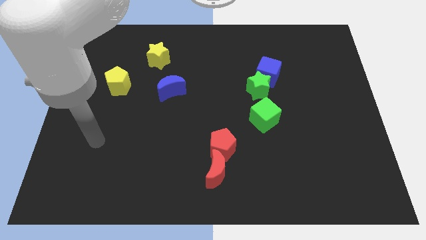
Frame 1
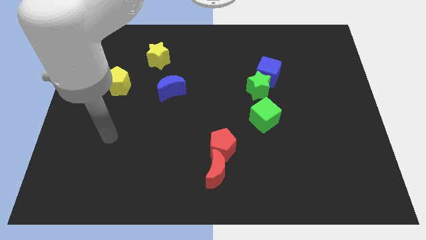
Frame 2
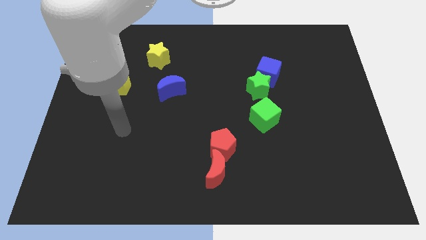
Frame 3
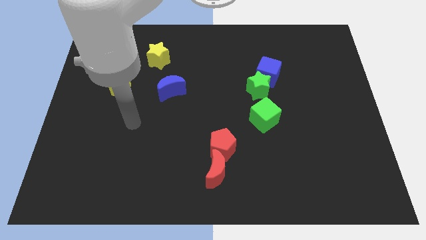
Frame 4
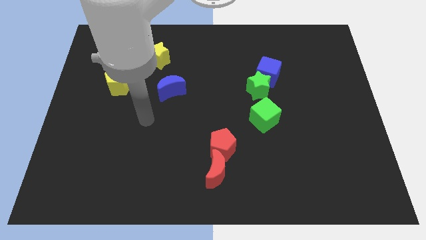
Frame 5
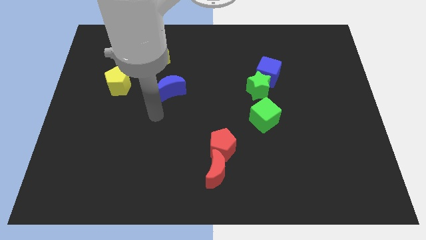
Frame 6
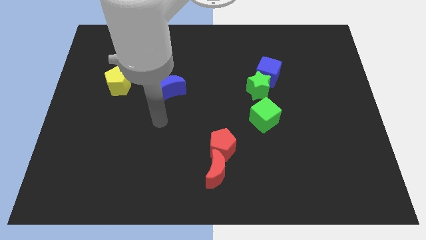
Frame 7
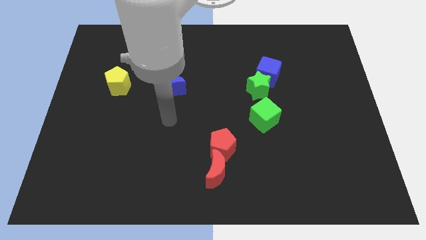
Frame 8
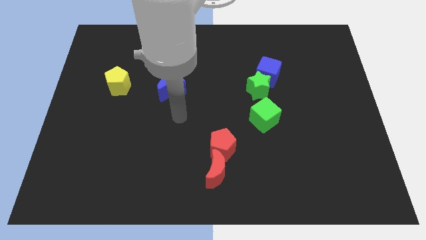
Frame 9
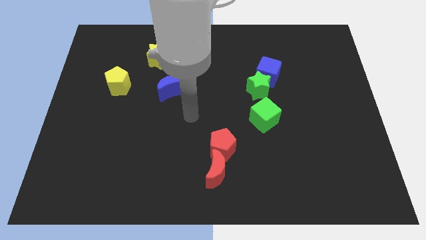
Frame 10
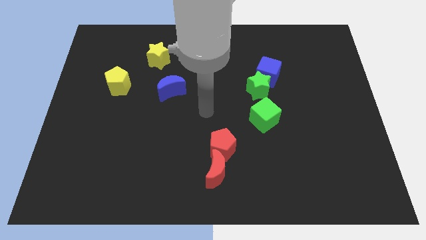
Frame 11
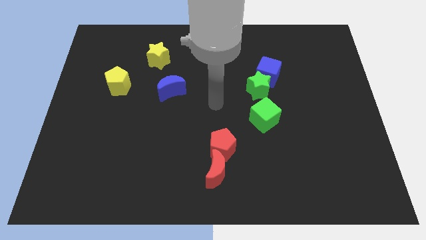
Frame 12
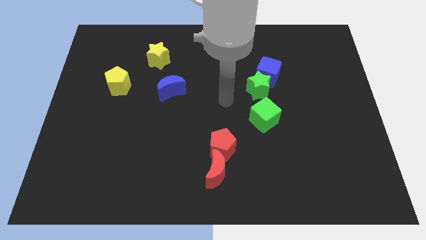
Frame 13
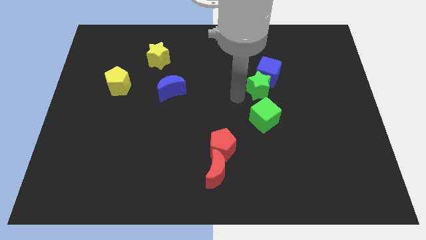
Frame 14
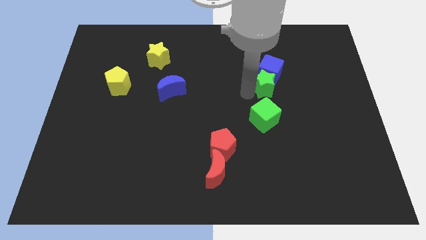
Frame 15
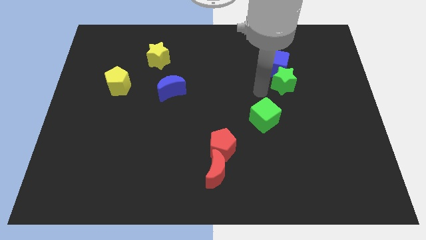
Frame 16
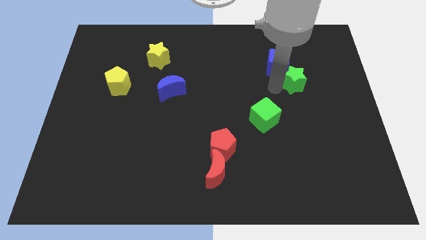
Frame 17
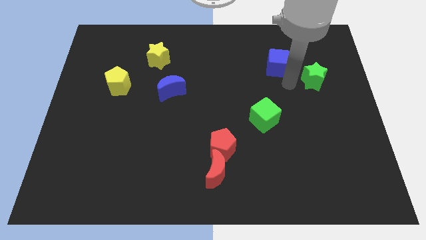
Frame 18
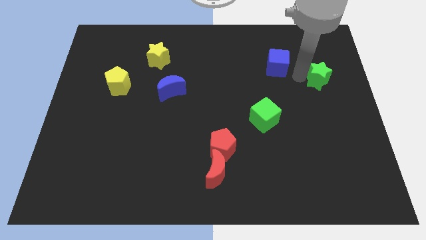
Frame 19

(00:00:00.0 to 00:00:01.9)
separate the blue cube from the green star

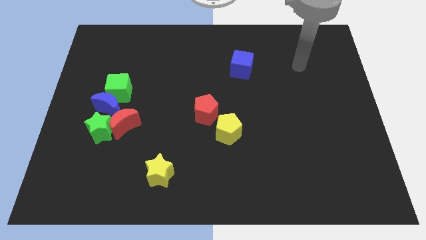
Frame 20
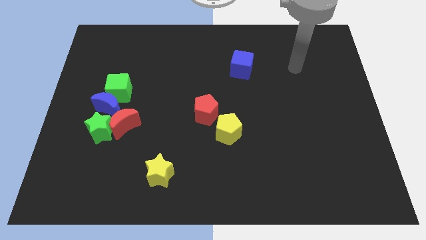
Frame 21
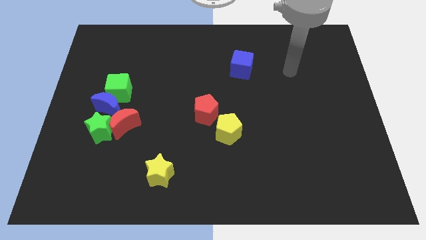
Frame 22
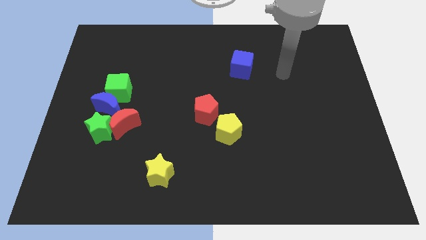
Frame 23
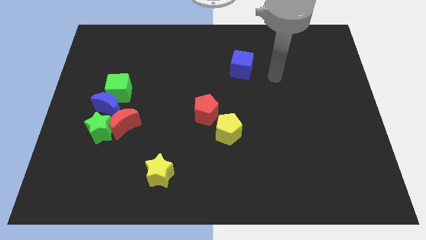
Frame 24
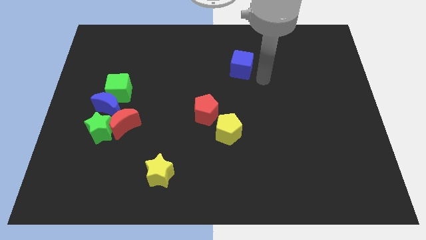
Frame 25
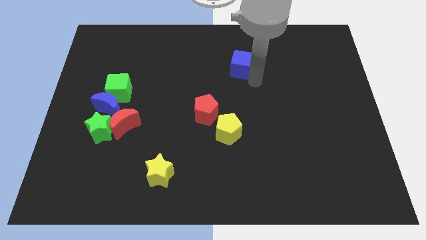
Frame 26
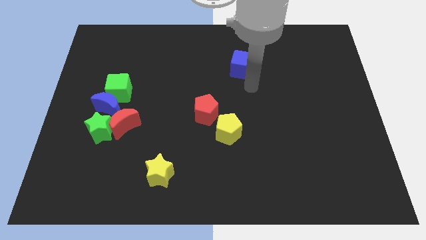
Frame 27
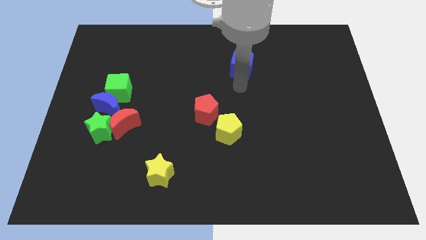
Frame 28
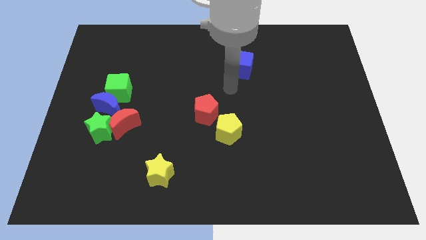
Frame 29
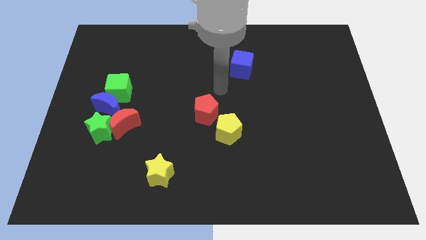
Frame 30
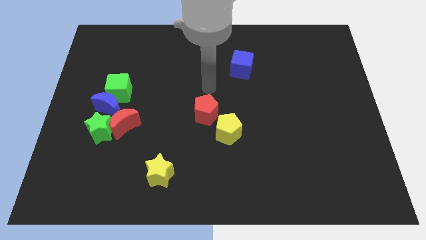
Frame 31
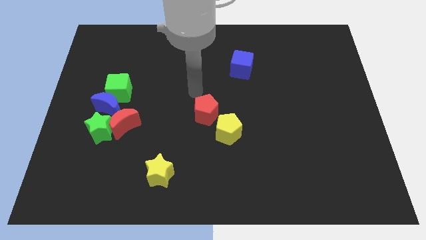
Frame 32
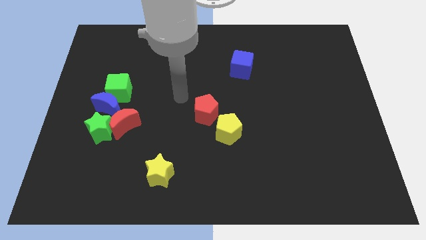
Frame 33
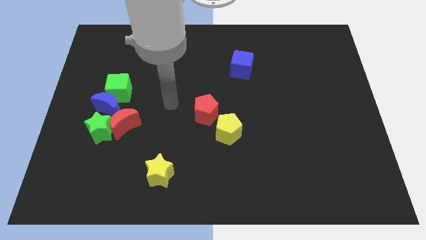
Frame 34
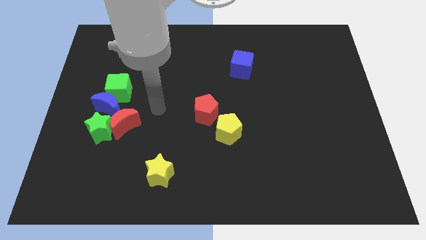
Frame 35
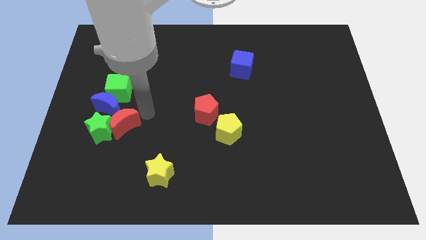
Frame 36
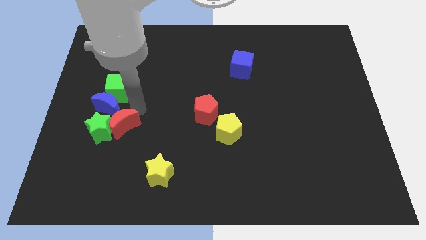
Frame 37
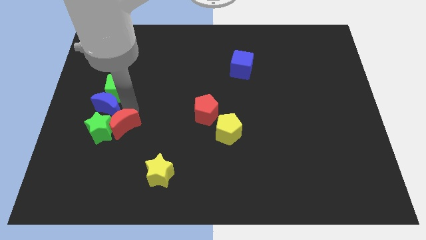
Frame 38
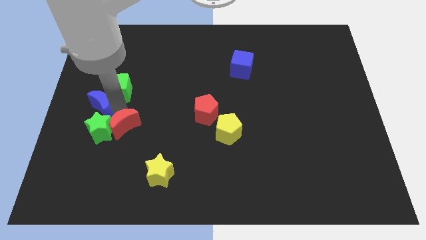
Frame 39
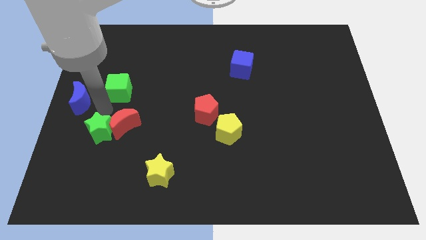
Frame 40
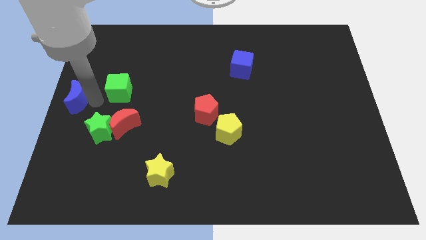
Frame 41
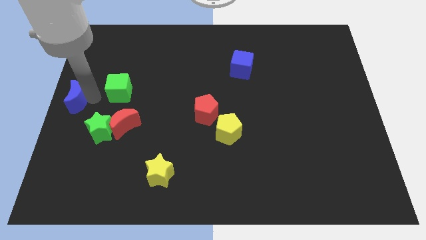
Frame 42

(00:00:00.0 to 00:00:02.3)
pull the green cube apart from the blue moon

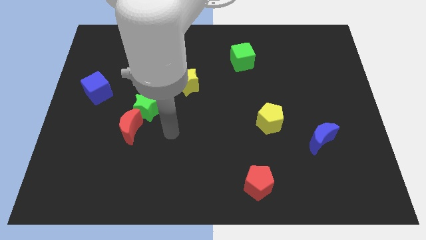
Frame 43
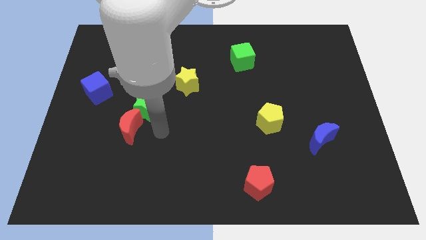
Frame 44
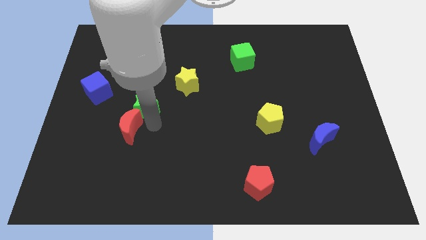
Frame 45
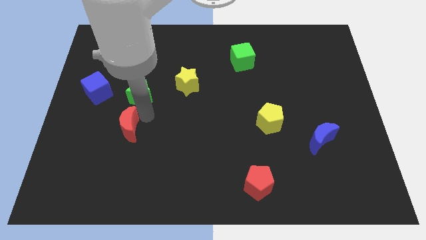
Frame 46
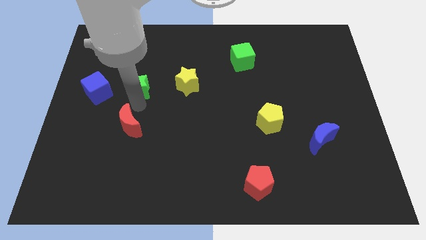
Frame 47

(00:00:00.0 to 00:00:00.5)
separate the red moon from the green star

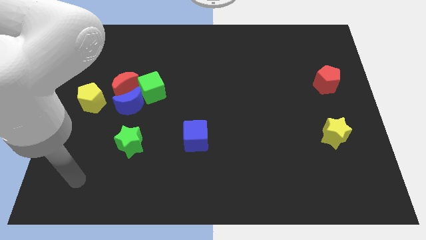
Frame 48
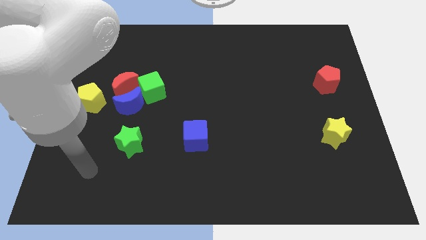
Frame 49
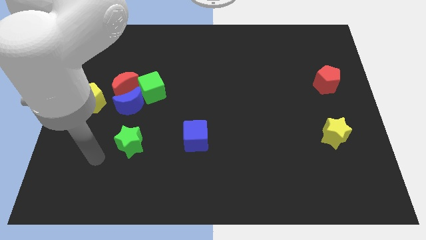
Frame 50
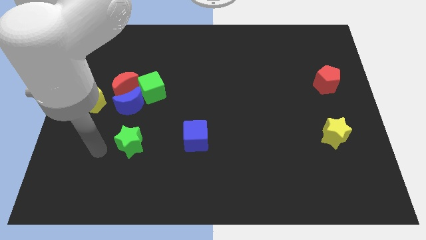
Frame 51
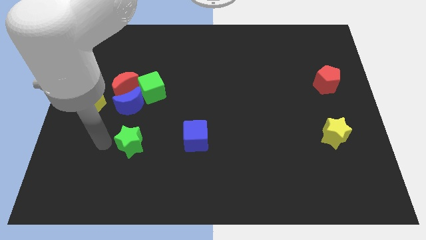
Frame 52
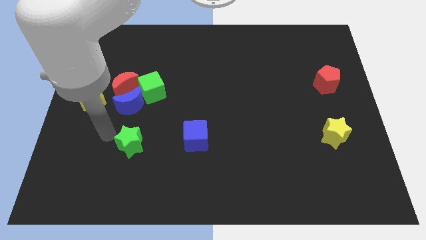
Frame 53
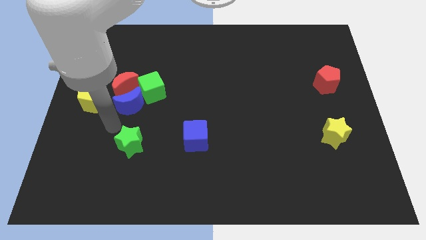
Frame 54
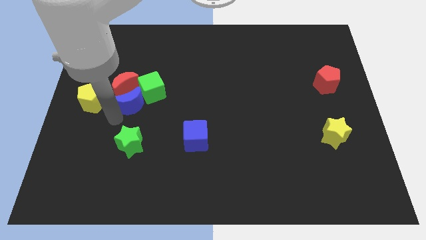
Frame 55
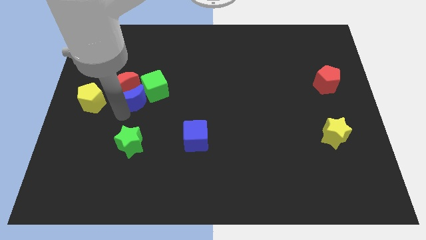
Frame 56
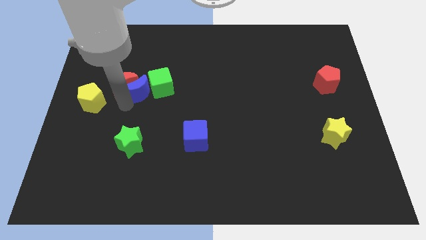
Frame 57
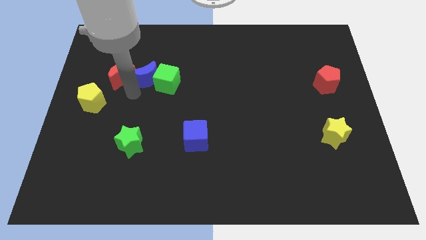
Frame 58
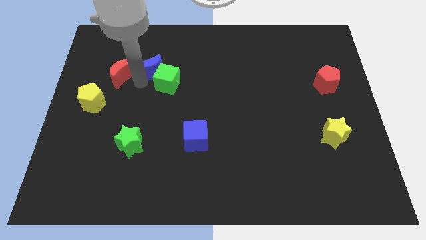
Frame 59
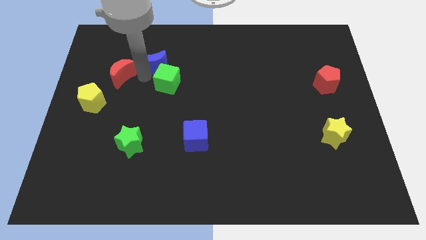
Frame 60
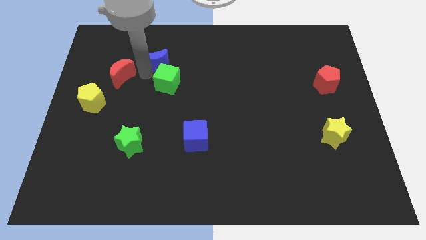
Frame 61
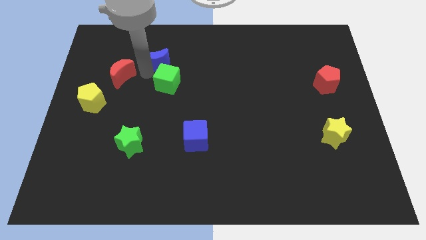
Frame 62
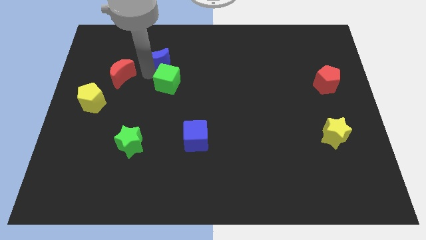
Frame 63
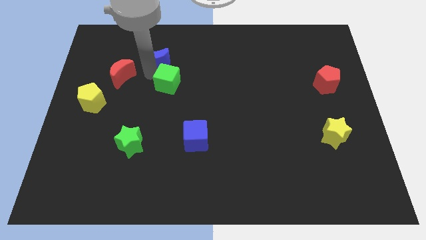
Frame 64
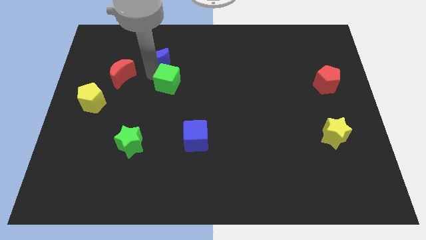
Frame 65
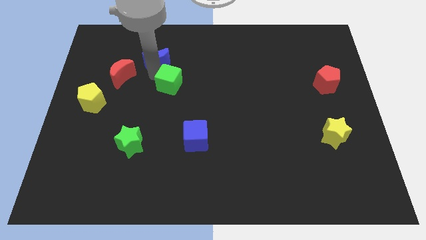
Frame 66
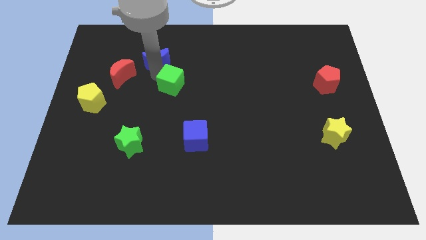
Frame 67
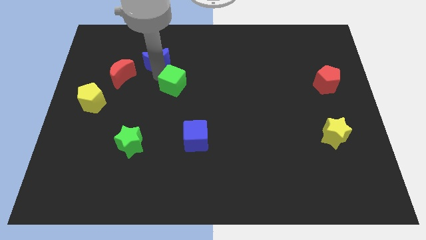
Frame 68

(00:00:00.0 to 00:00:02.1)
separate the green cube from the blue moon and red moon

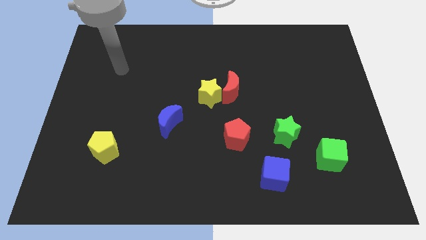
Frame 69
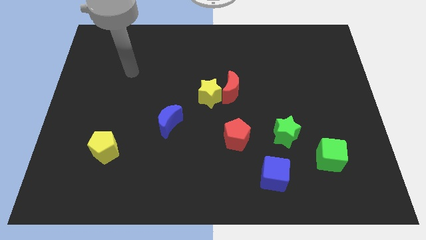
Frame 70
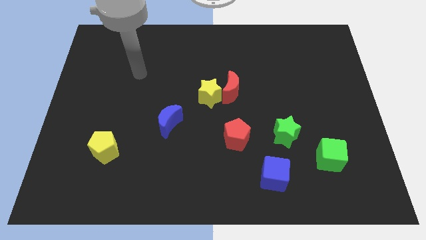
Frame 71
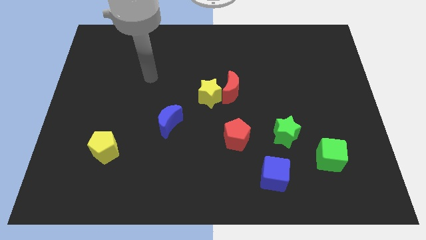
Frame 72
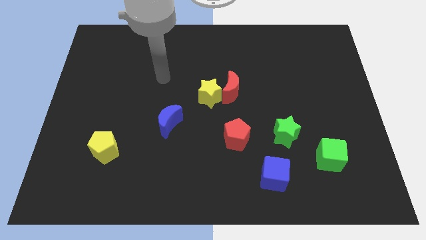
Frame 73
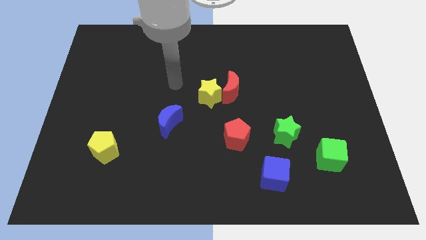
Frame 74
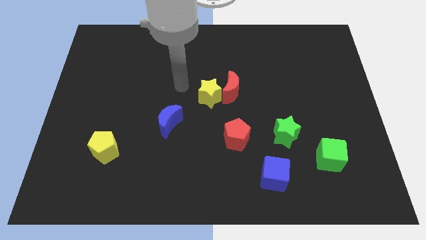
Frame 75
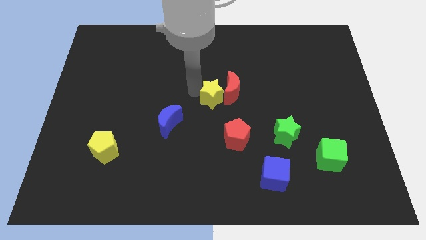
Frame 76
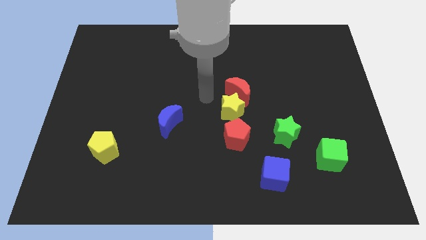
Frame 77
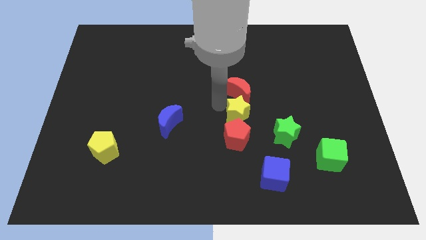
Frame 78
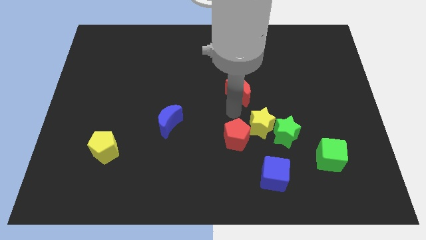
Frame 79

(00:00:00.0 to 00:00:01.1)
separate the red moon from the yellow star

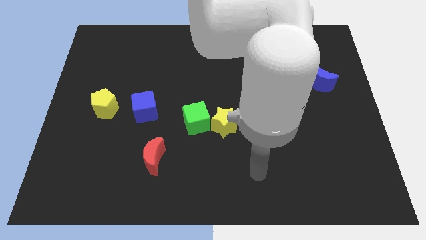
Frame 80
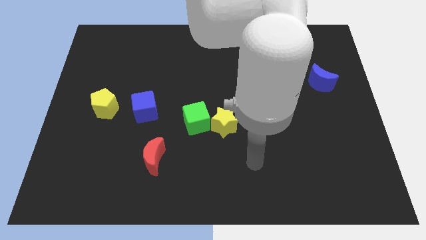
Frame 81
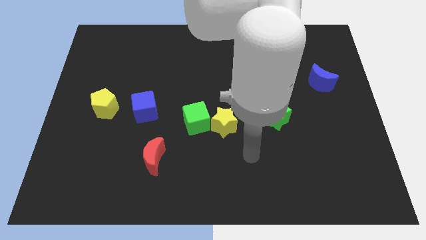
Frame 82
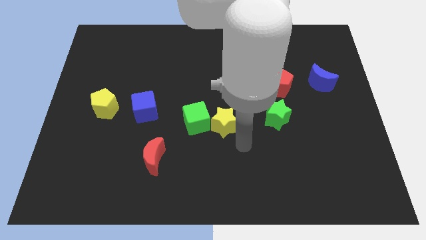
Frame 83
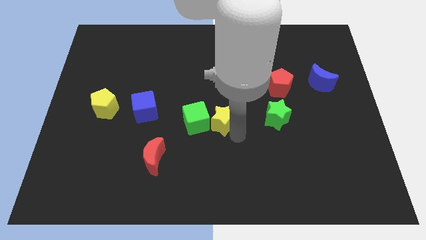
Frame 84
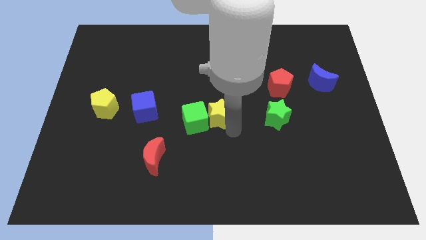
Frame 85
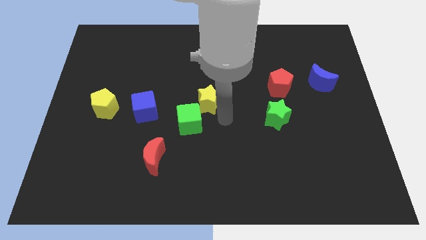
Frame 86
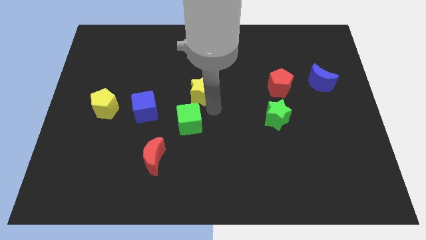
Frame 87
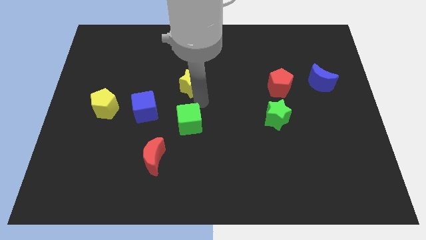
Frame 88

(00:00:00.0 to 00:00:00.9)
pull the green cube apart from the yellow star

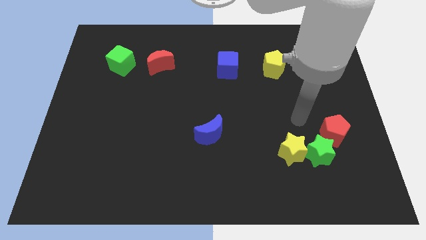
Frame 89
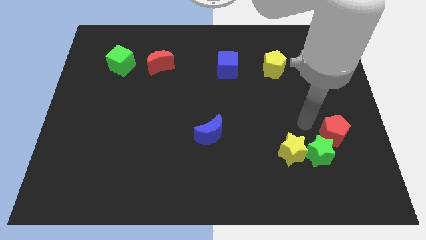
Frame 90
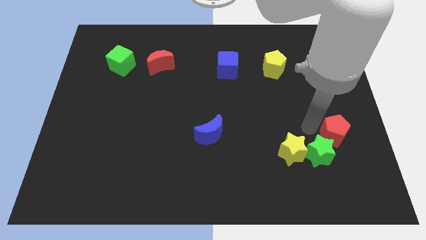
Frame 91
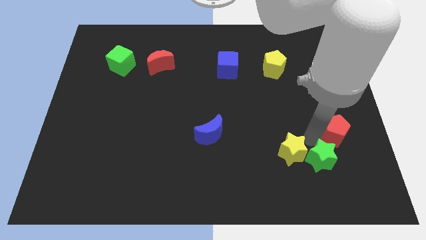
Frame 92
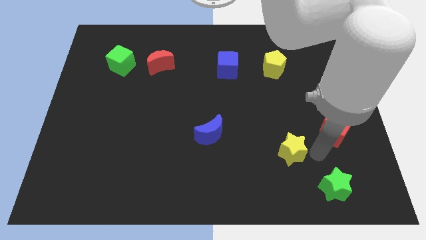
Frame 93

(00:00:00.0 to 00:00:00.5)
separate the yellow star from the green star
